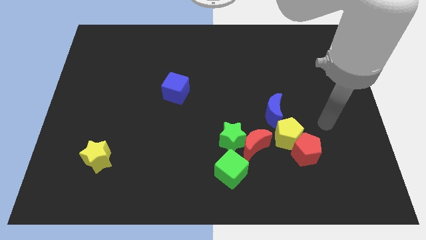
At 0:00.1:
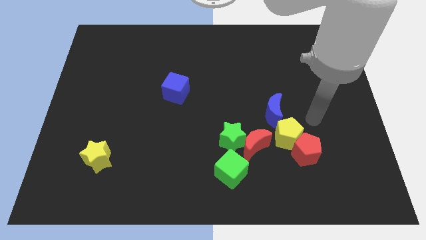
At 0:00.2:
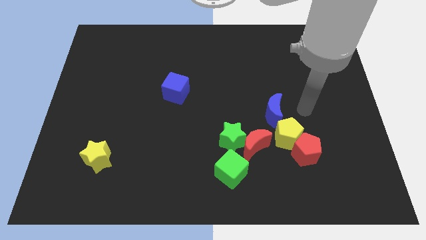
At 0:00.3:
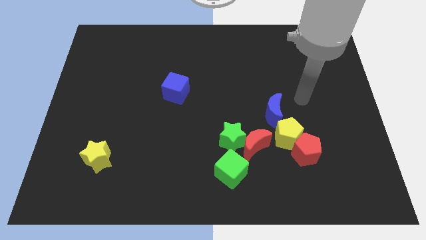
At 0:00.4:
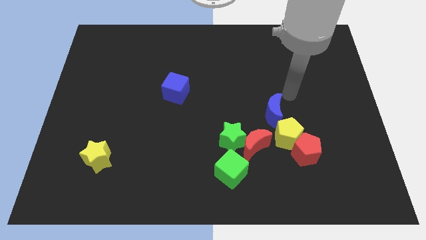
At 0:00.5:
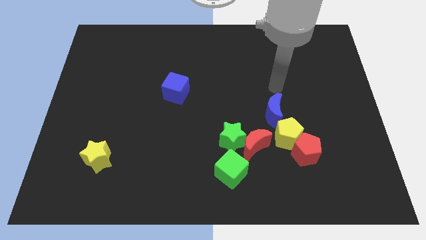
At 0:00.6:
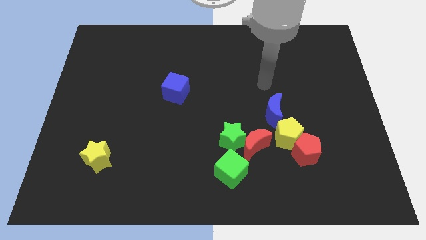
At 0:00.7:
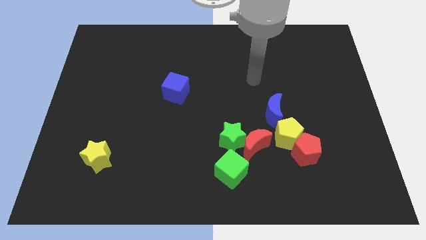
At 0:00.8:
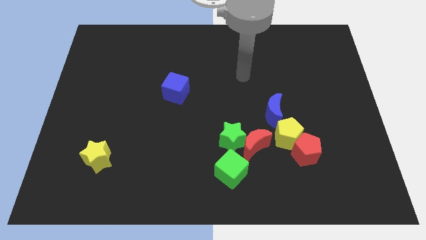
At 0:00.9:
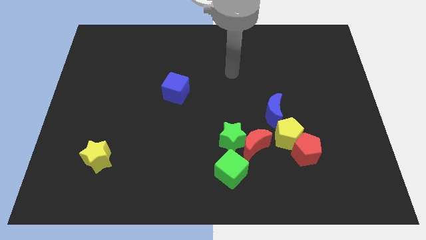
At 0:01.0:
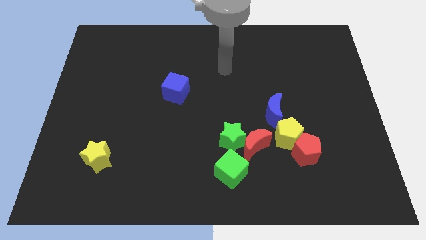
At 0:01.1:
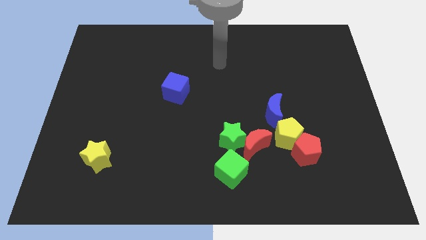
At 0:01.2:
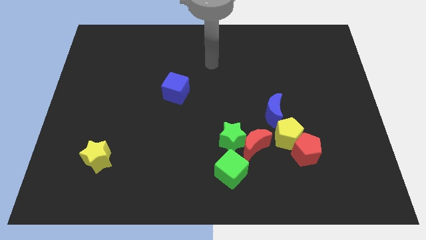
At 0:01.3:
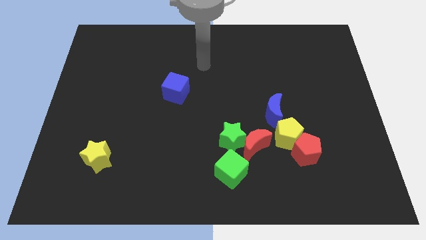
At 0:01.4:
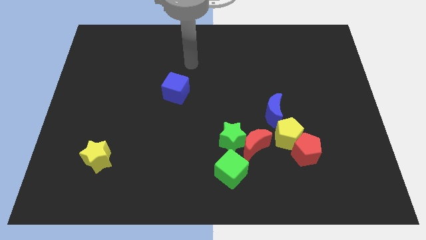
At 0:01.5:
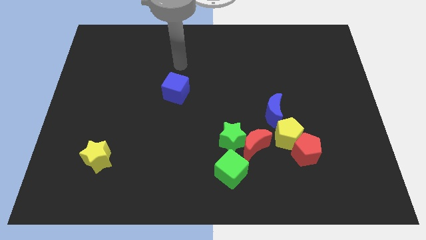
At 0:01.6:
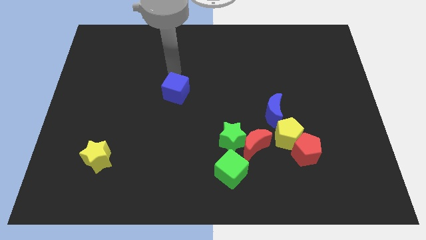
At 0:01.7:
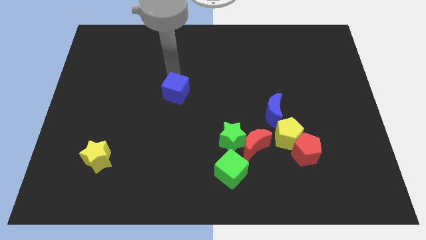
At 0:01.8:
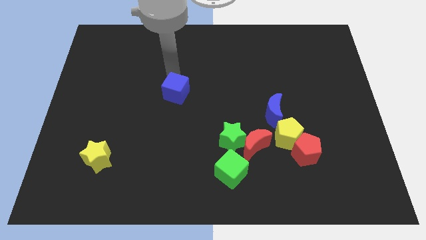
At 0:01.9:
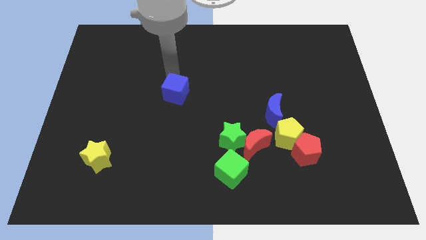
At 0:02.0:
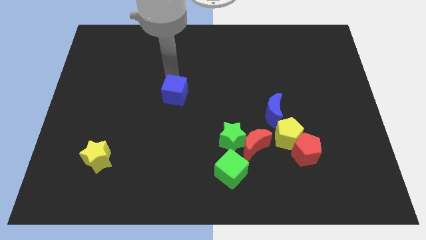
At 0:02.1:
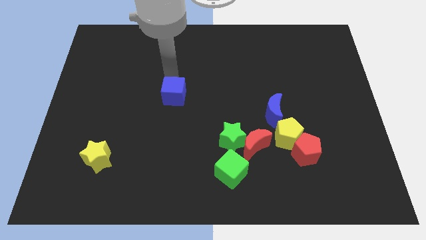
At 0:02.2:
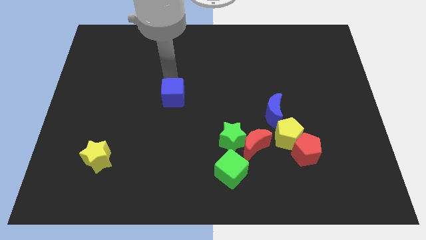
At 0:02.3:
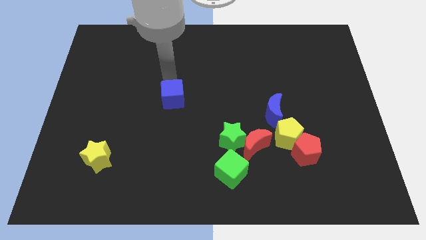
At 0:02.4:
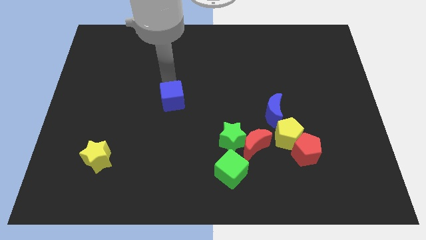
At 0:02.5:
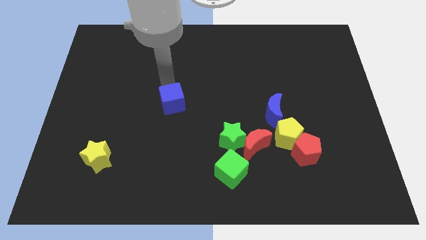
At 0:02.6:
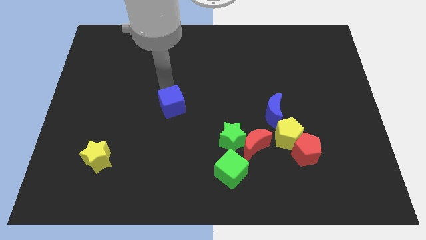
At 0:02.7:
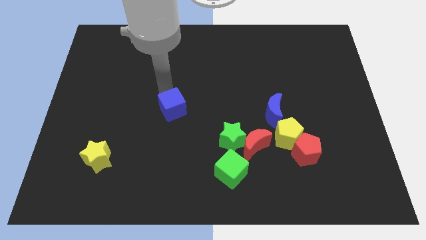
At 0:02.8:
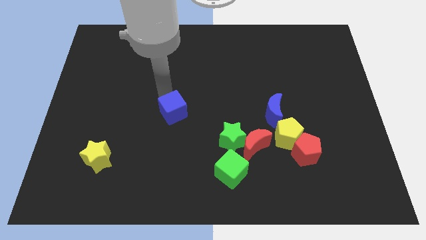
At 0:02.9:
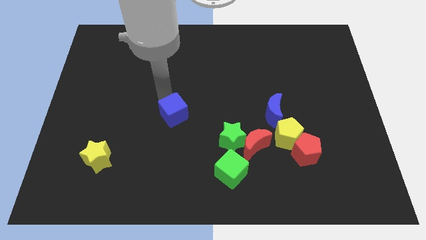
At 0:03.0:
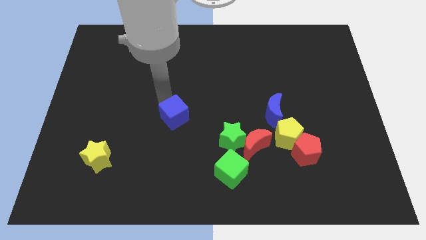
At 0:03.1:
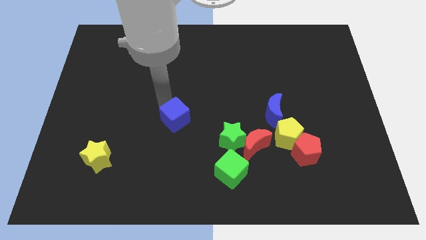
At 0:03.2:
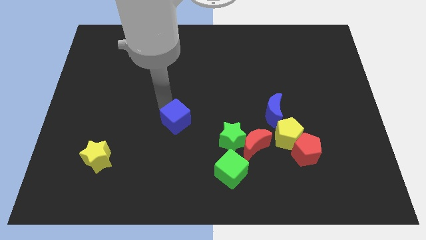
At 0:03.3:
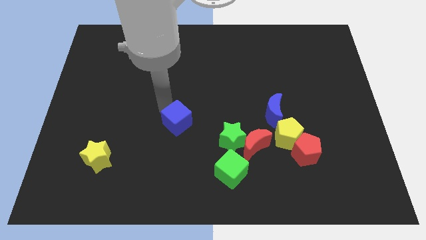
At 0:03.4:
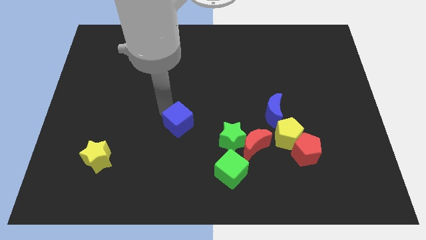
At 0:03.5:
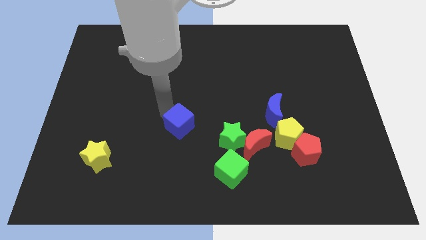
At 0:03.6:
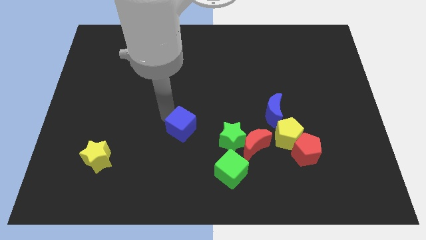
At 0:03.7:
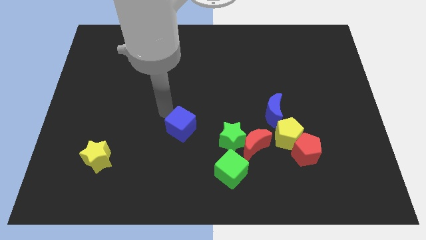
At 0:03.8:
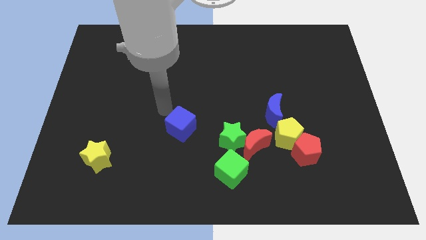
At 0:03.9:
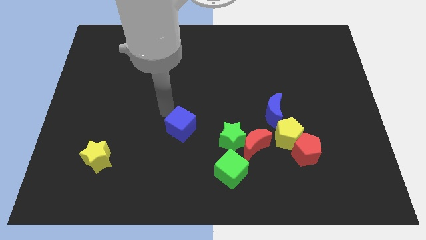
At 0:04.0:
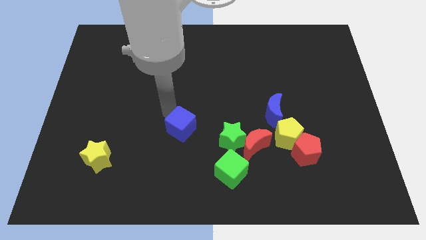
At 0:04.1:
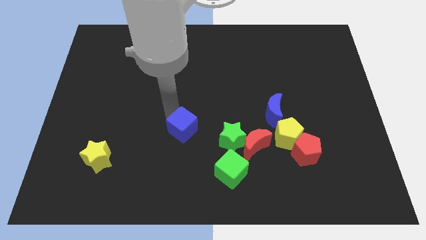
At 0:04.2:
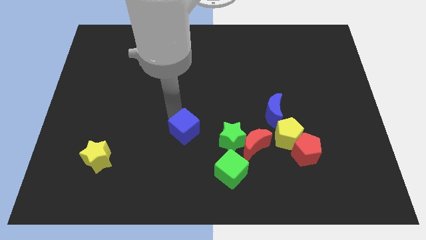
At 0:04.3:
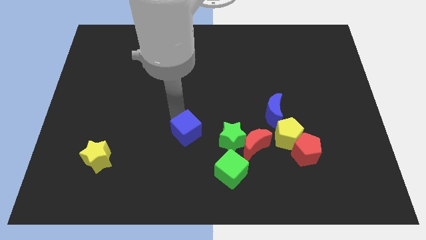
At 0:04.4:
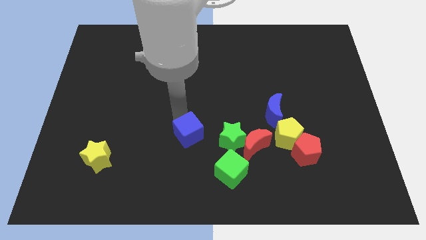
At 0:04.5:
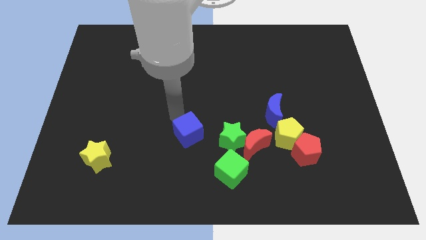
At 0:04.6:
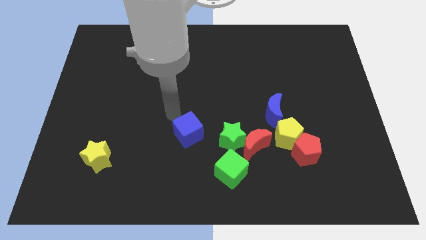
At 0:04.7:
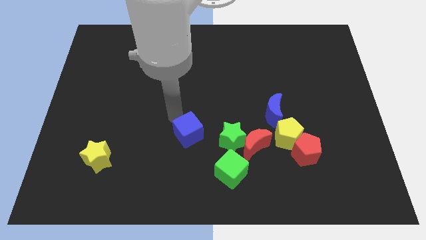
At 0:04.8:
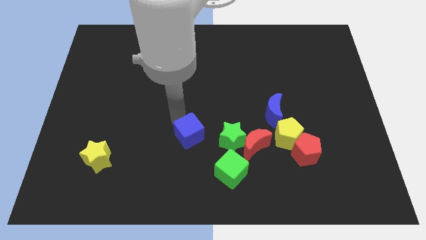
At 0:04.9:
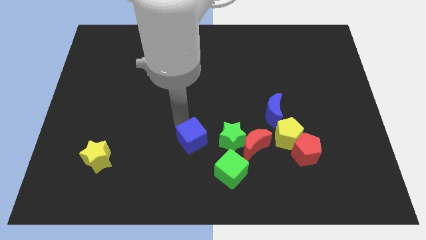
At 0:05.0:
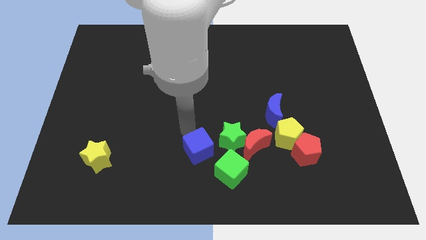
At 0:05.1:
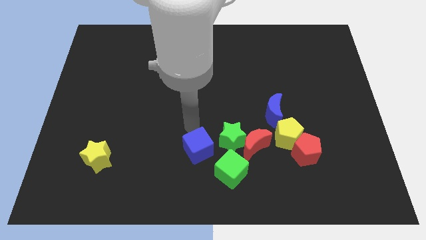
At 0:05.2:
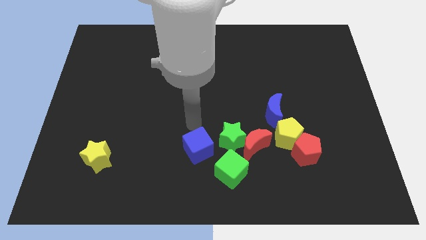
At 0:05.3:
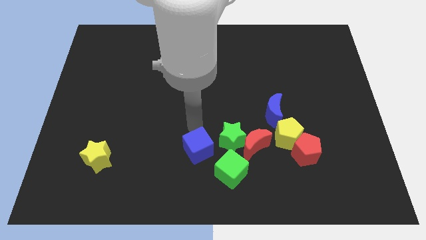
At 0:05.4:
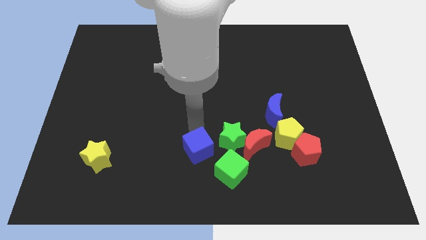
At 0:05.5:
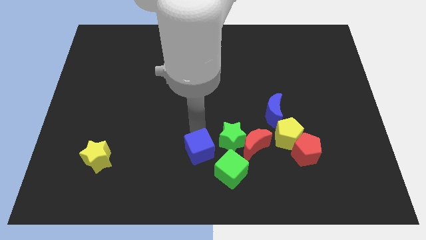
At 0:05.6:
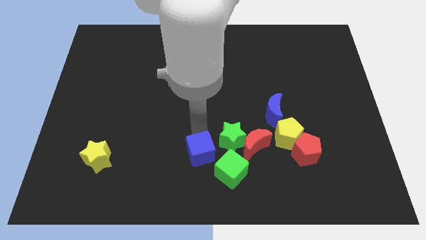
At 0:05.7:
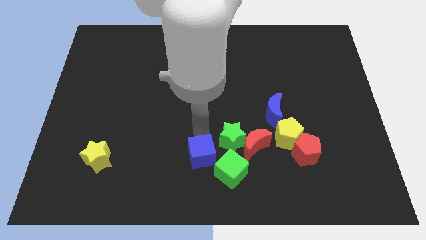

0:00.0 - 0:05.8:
slide the blue cube to the bottom
